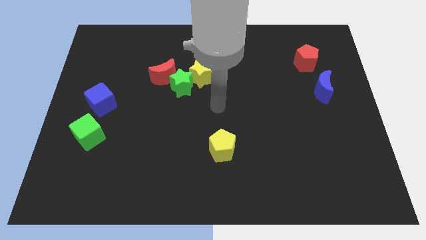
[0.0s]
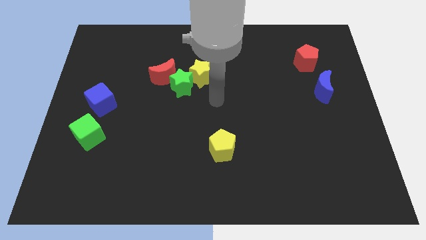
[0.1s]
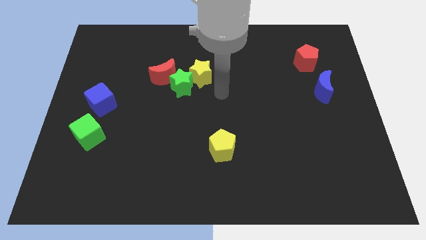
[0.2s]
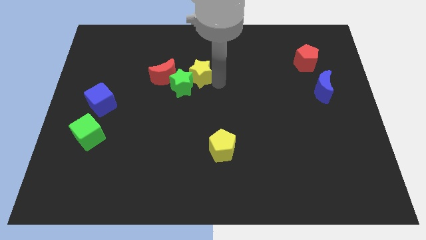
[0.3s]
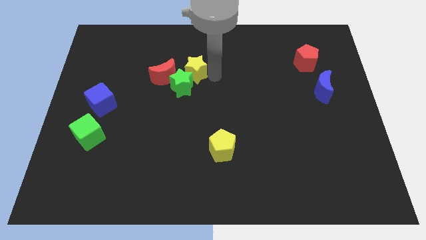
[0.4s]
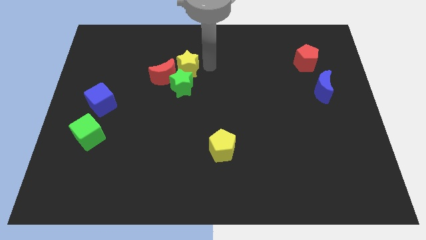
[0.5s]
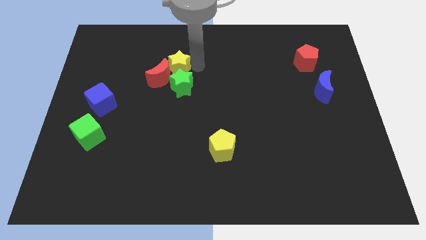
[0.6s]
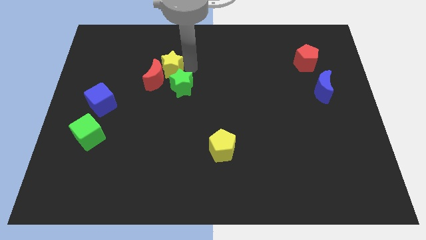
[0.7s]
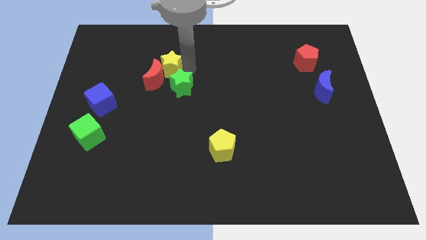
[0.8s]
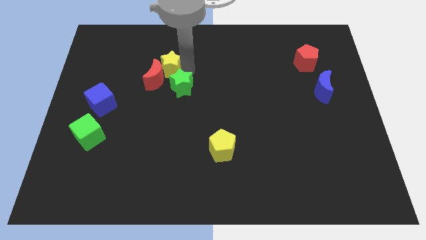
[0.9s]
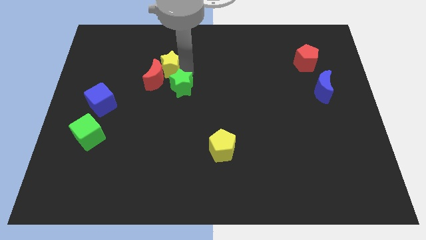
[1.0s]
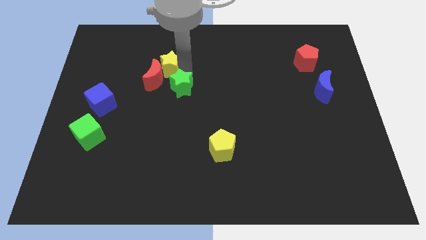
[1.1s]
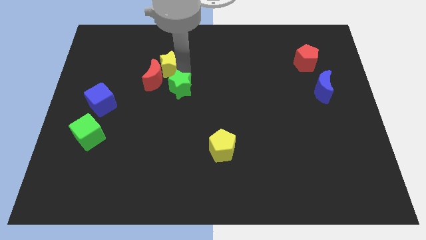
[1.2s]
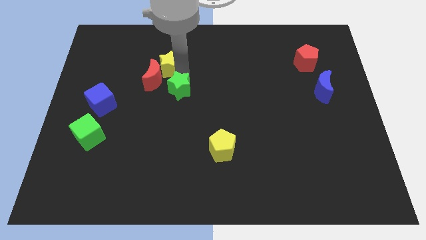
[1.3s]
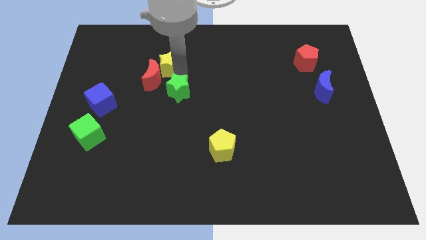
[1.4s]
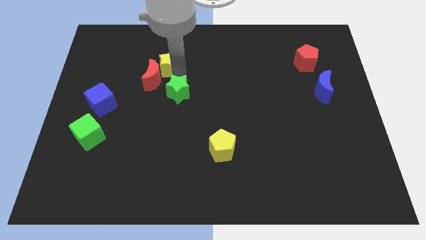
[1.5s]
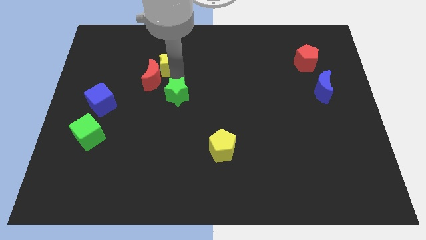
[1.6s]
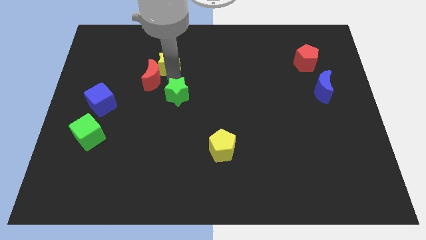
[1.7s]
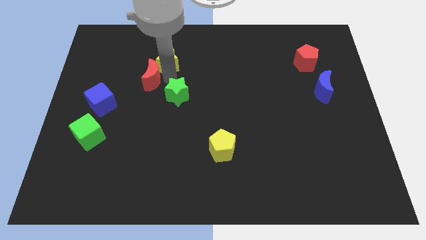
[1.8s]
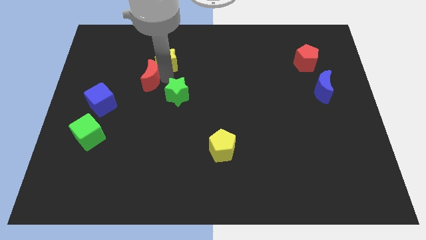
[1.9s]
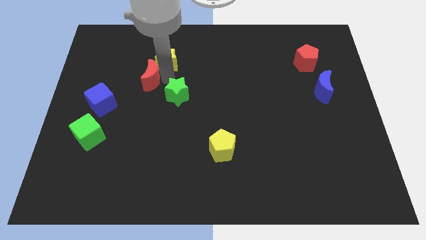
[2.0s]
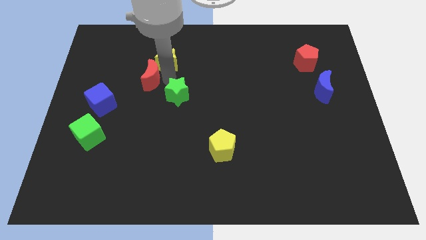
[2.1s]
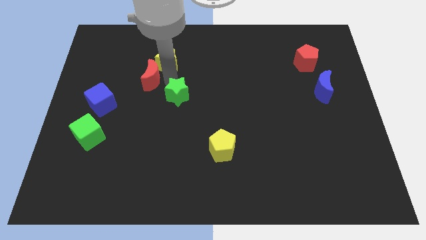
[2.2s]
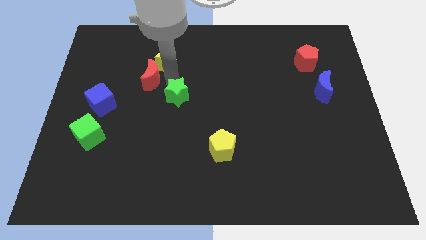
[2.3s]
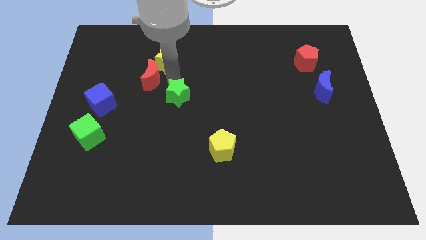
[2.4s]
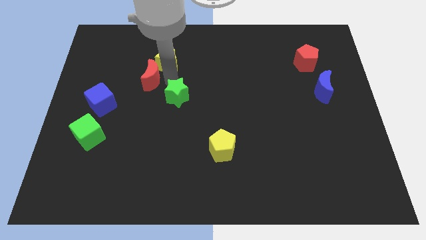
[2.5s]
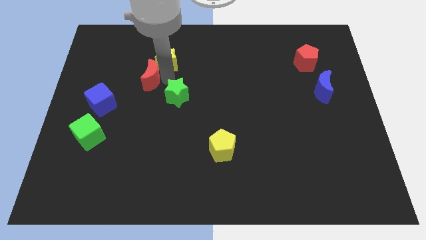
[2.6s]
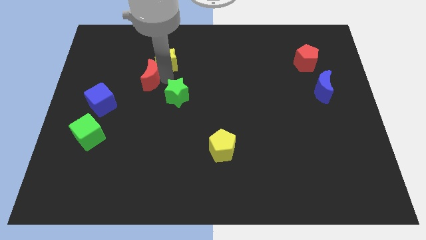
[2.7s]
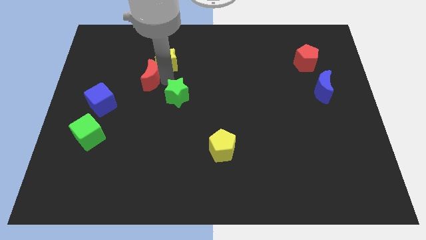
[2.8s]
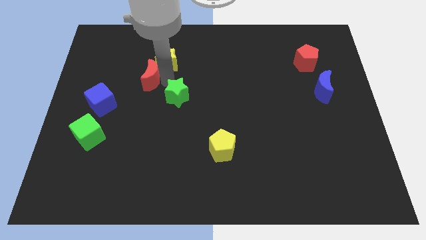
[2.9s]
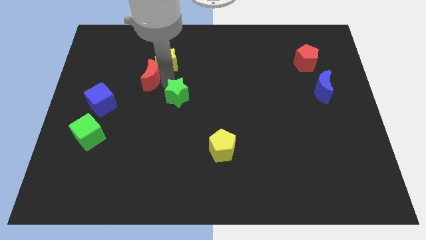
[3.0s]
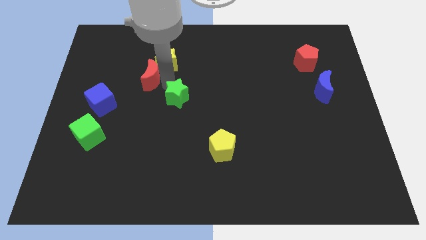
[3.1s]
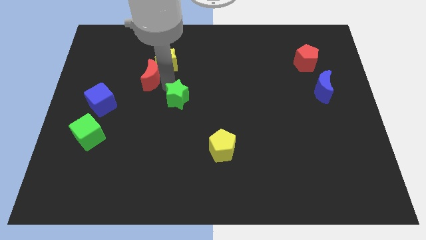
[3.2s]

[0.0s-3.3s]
separate the green star from the yellow star and red moon

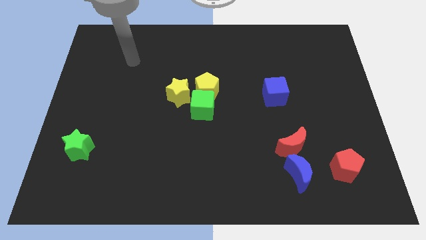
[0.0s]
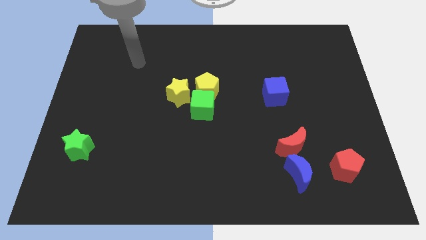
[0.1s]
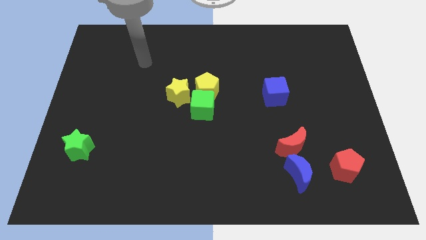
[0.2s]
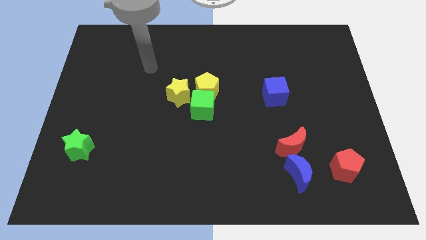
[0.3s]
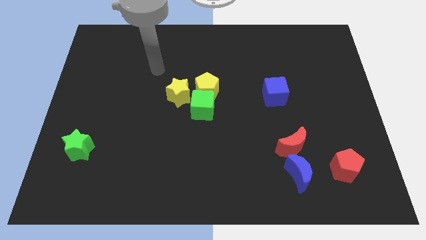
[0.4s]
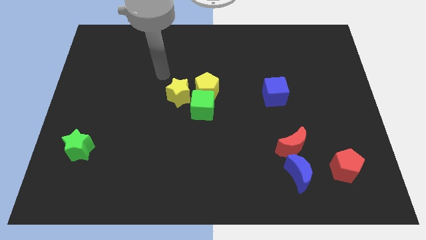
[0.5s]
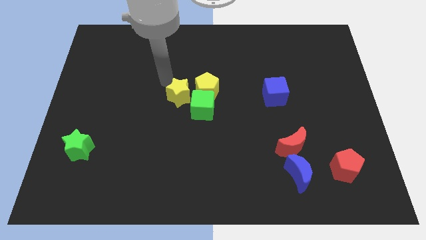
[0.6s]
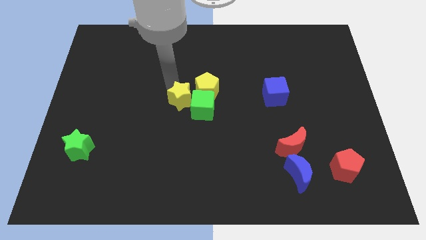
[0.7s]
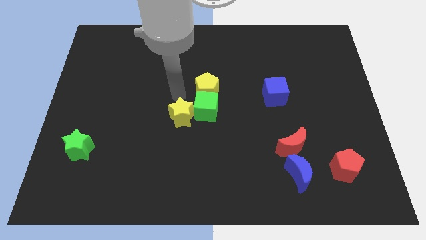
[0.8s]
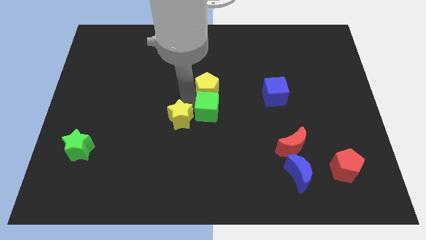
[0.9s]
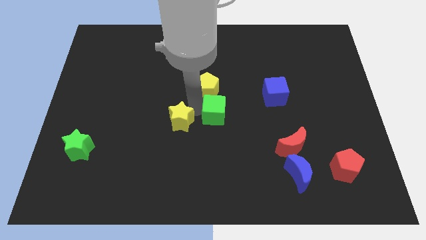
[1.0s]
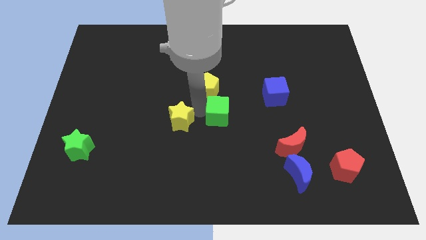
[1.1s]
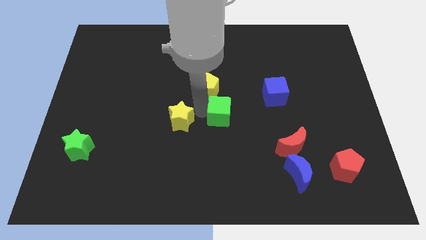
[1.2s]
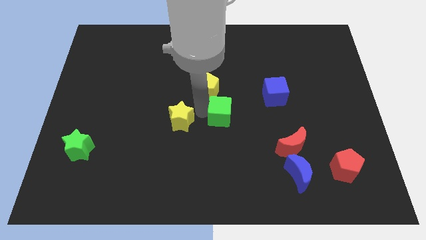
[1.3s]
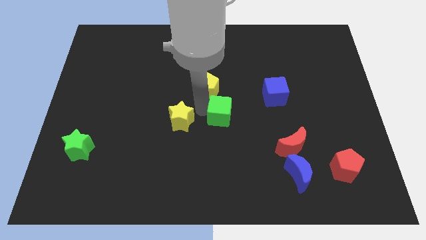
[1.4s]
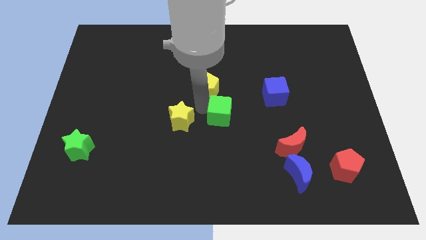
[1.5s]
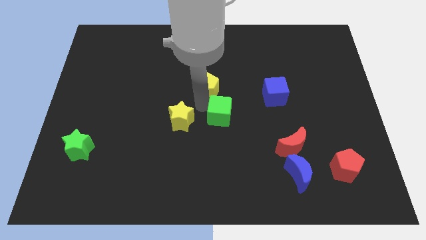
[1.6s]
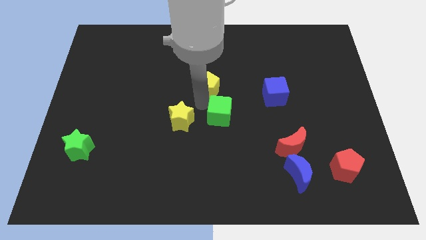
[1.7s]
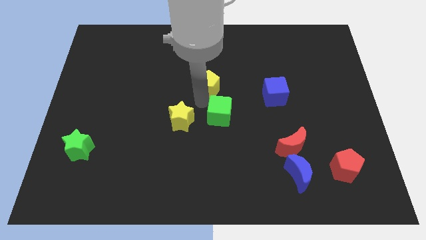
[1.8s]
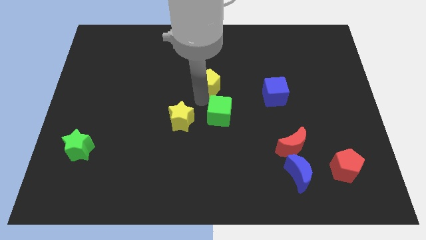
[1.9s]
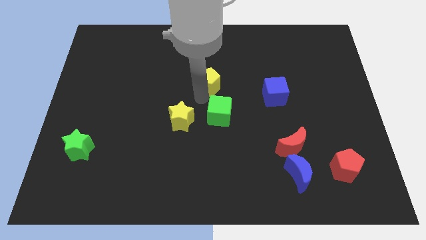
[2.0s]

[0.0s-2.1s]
move the yellow pentagon away from the green cube and yellow star

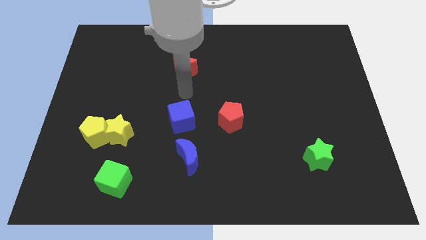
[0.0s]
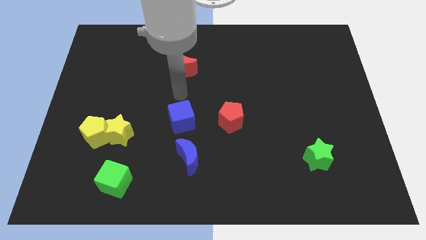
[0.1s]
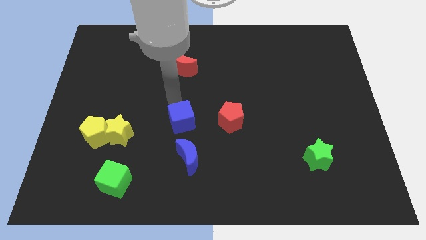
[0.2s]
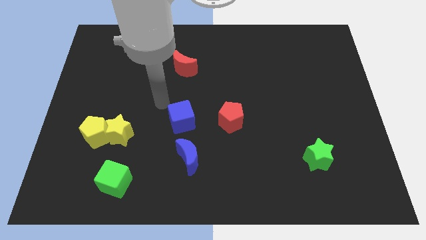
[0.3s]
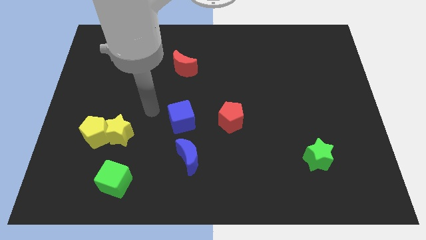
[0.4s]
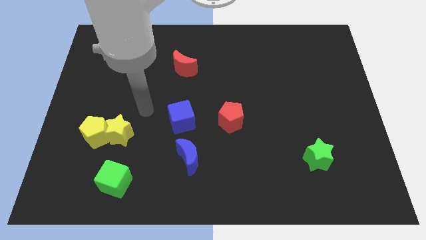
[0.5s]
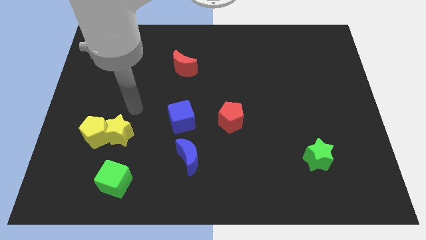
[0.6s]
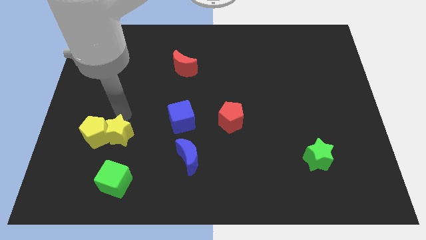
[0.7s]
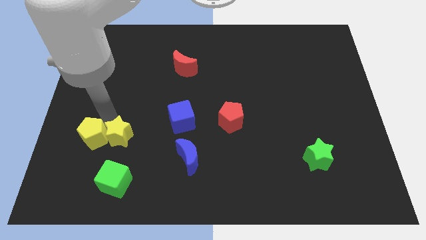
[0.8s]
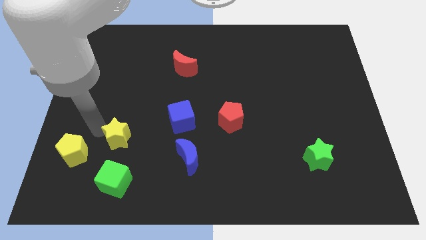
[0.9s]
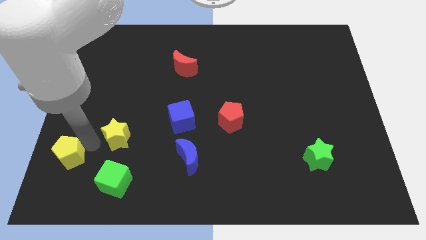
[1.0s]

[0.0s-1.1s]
pull the yellow star apart from the yellow pentagon

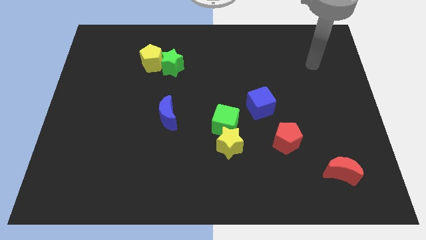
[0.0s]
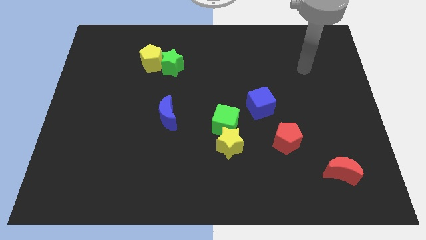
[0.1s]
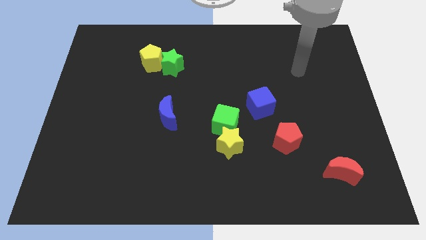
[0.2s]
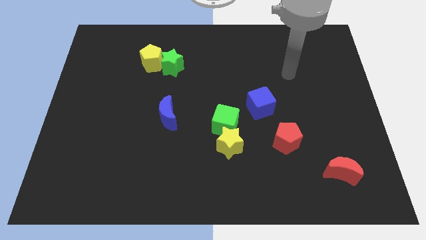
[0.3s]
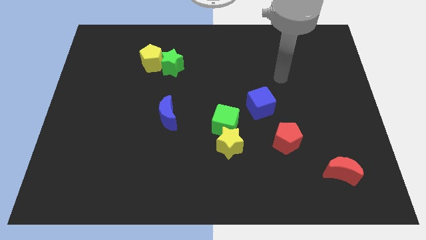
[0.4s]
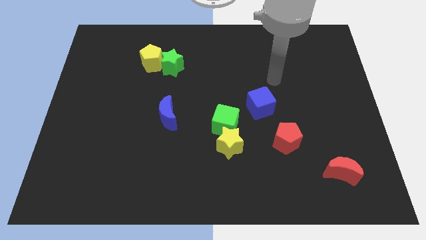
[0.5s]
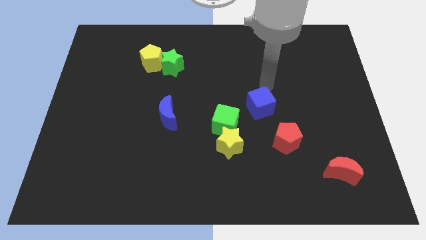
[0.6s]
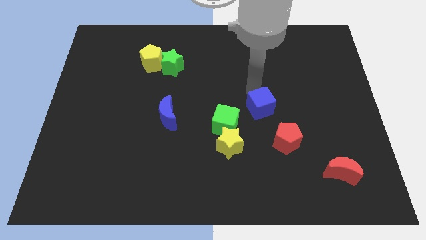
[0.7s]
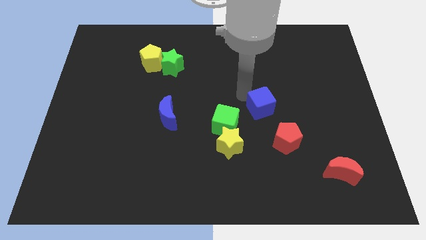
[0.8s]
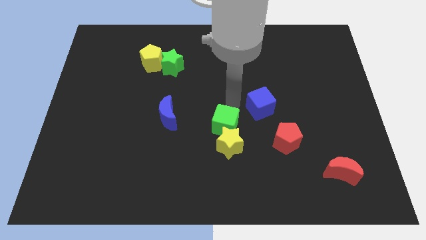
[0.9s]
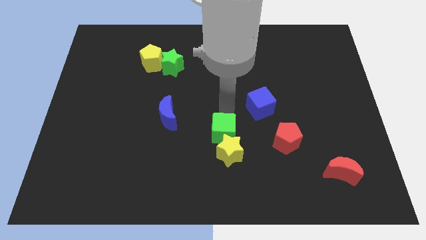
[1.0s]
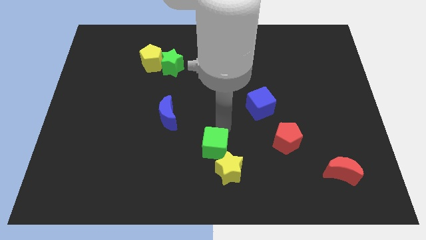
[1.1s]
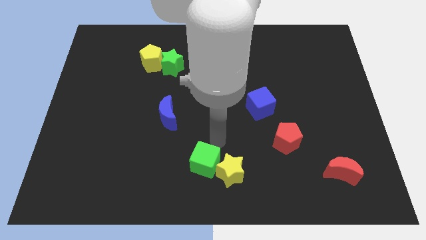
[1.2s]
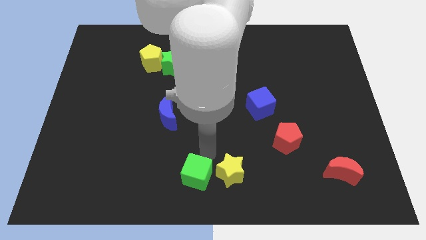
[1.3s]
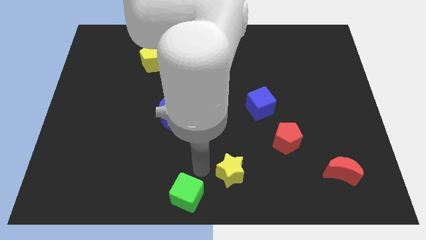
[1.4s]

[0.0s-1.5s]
move the yellow star away from the green cube

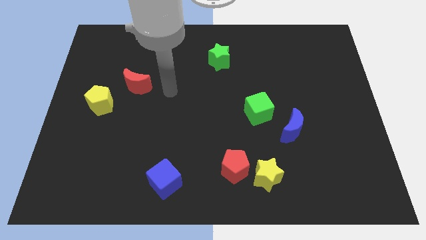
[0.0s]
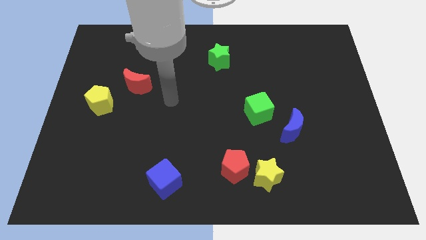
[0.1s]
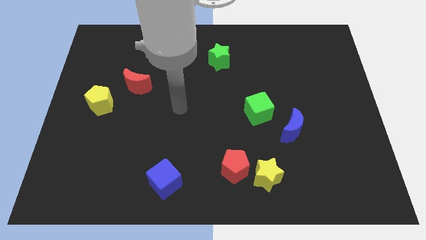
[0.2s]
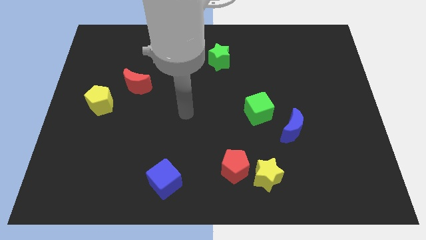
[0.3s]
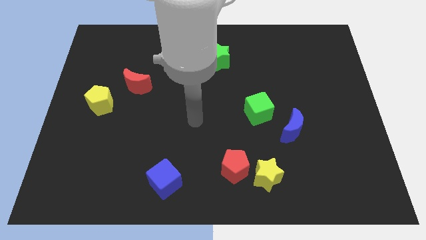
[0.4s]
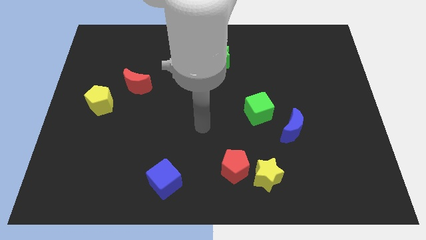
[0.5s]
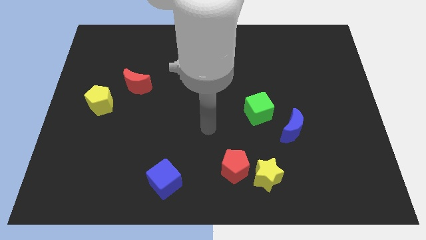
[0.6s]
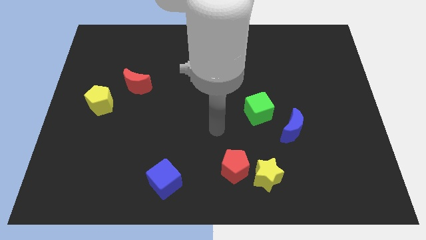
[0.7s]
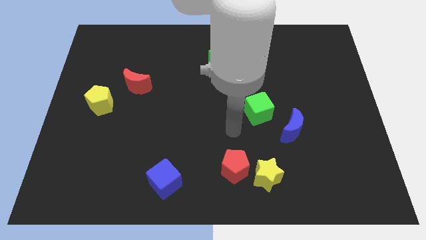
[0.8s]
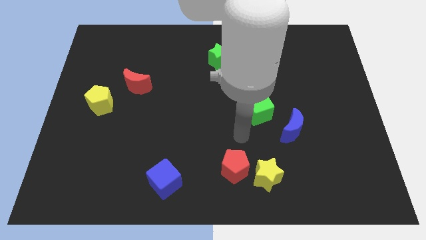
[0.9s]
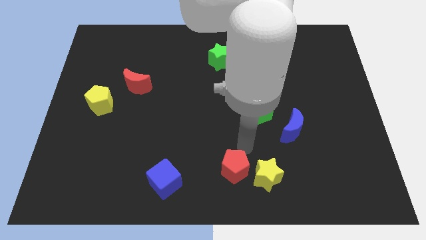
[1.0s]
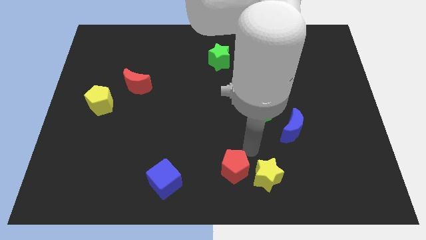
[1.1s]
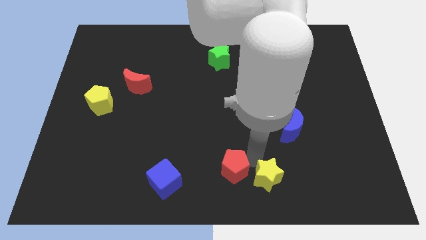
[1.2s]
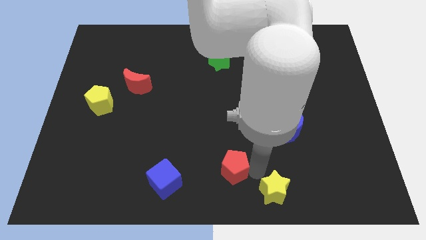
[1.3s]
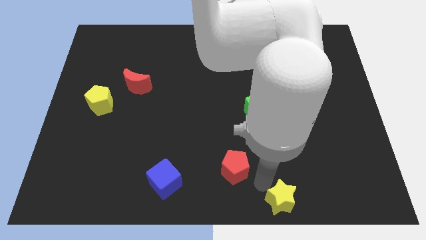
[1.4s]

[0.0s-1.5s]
move the red pentagon away from the yellow star
